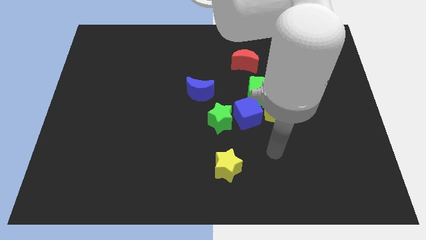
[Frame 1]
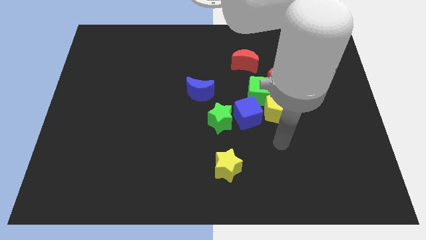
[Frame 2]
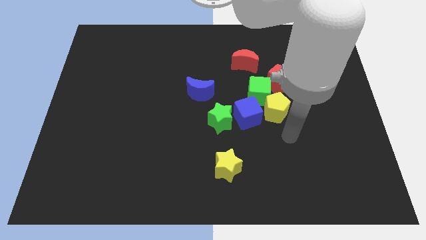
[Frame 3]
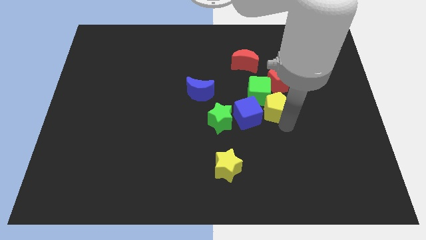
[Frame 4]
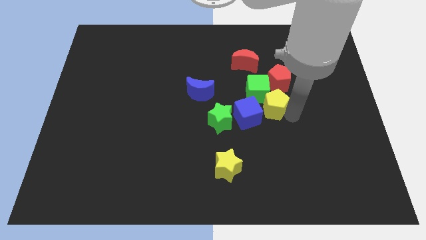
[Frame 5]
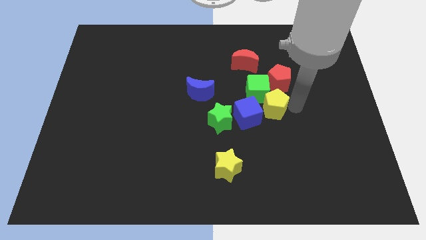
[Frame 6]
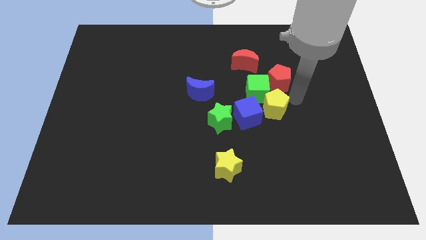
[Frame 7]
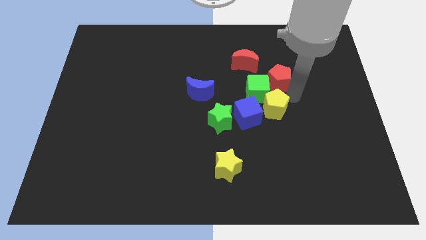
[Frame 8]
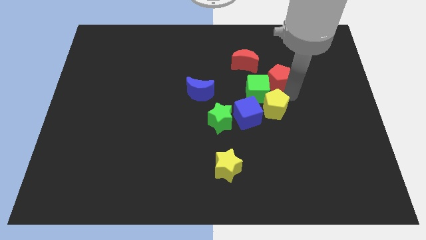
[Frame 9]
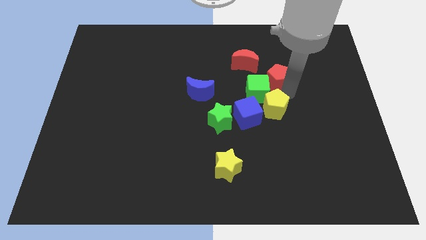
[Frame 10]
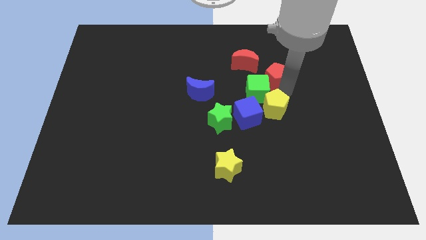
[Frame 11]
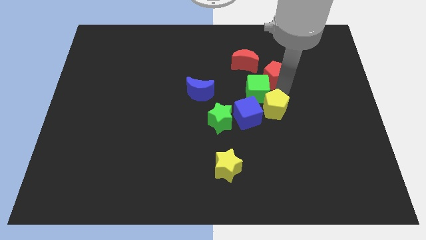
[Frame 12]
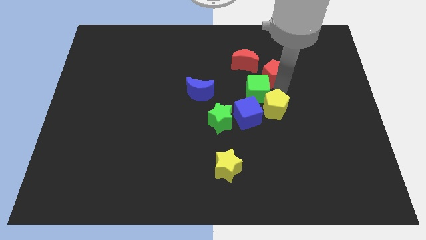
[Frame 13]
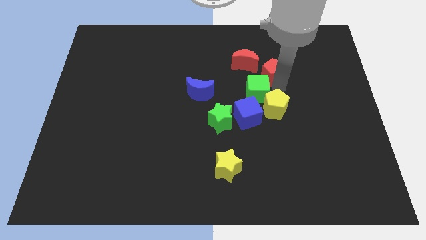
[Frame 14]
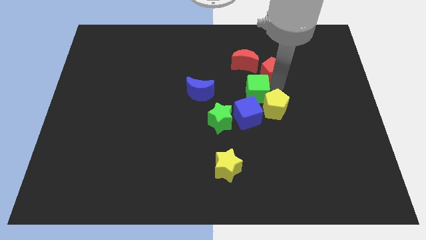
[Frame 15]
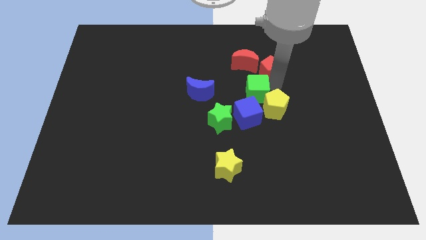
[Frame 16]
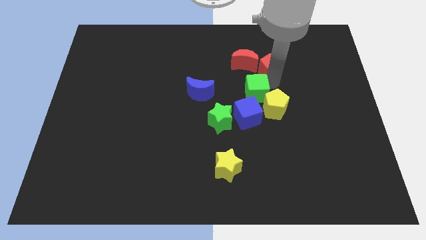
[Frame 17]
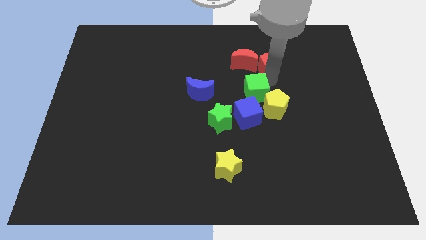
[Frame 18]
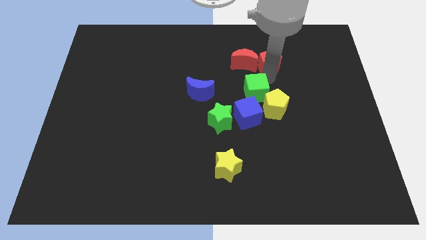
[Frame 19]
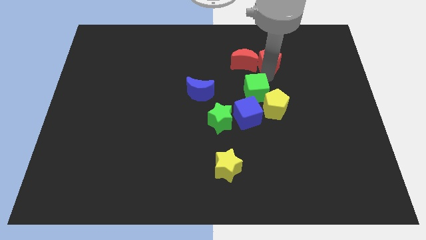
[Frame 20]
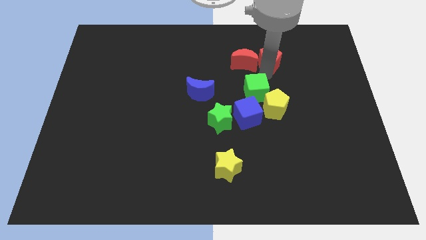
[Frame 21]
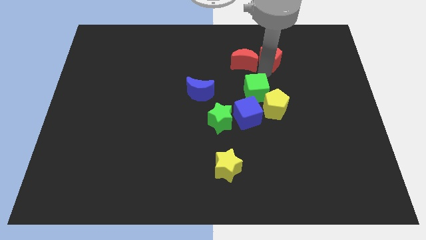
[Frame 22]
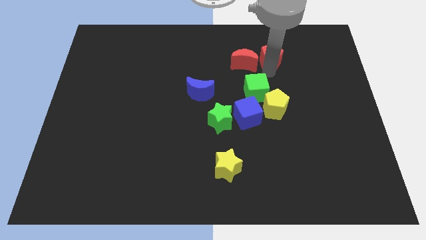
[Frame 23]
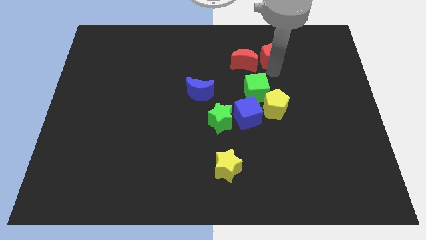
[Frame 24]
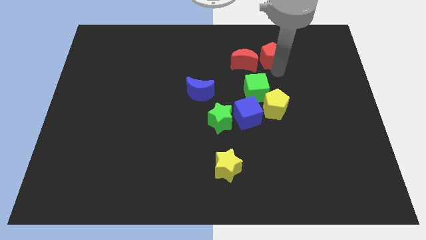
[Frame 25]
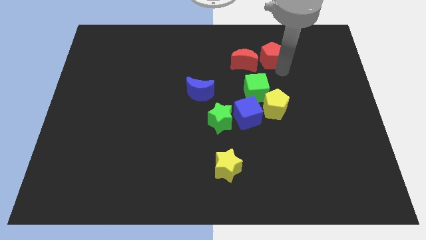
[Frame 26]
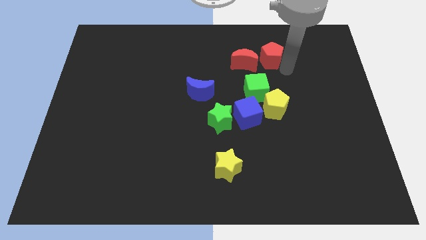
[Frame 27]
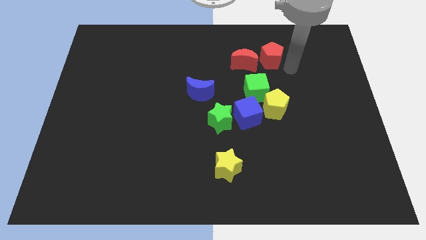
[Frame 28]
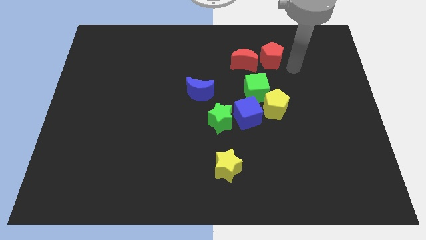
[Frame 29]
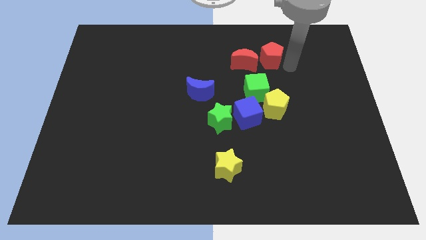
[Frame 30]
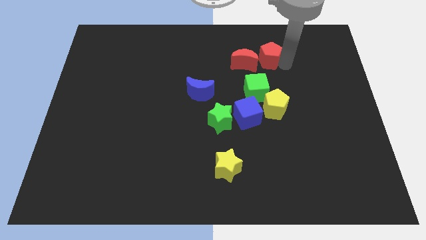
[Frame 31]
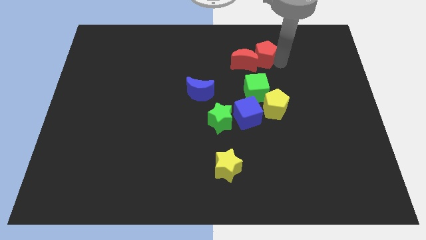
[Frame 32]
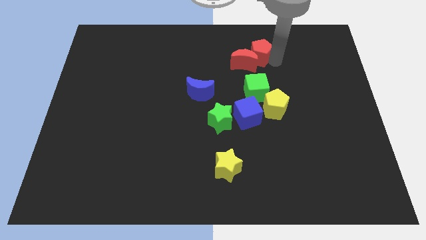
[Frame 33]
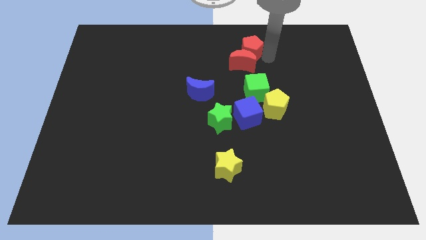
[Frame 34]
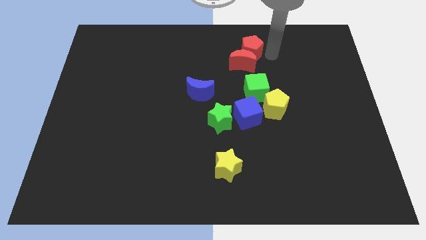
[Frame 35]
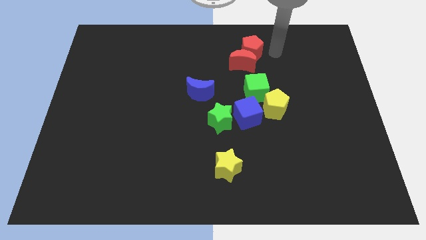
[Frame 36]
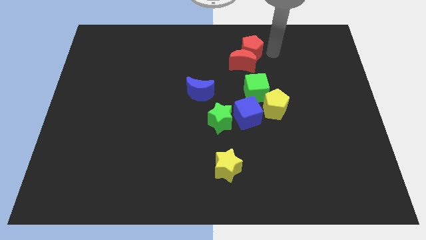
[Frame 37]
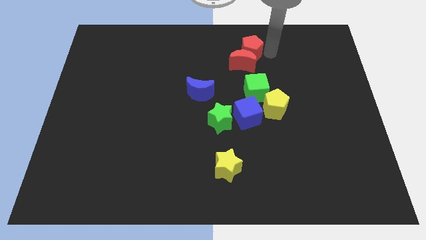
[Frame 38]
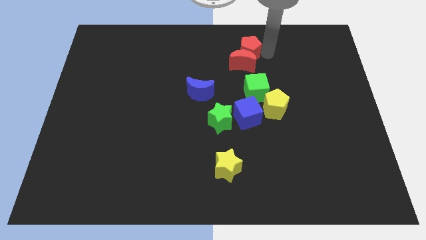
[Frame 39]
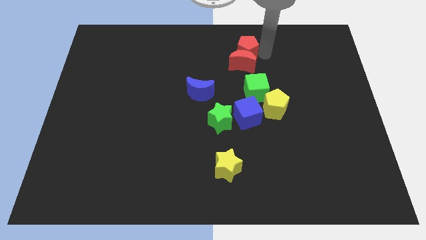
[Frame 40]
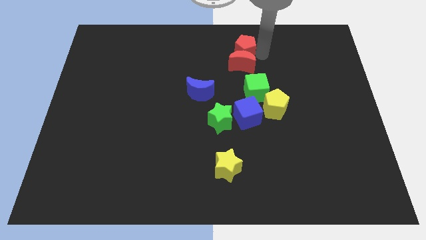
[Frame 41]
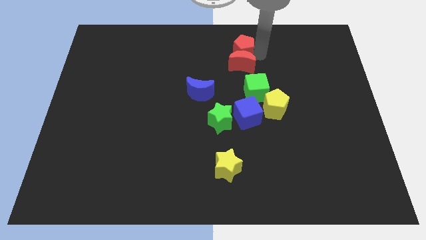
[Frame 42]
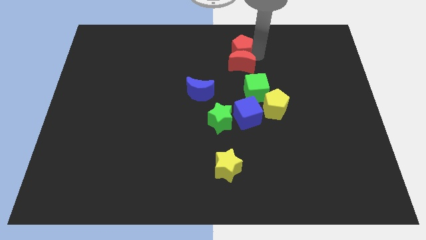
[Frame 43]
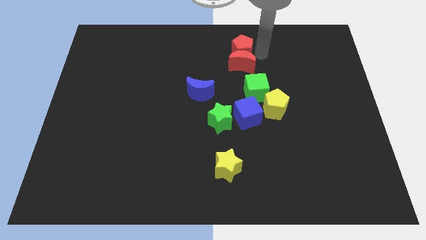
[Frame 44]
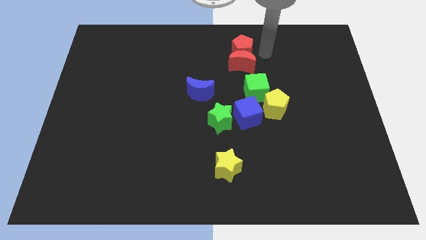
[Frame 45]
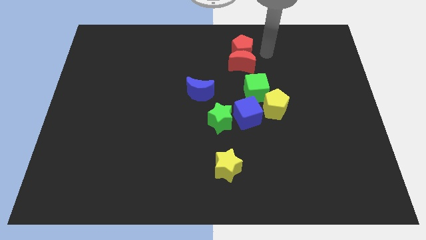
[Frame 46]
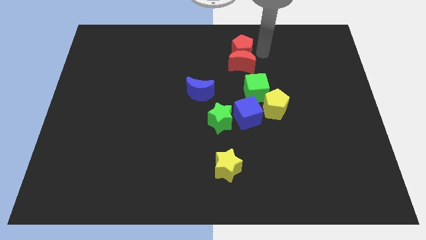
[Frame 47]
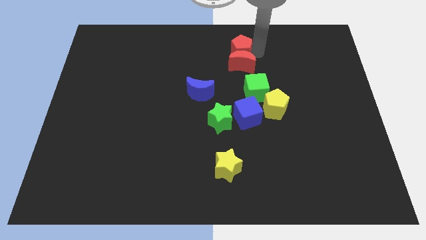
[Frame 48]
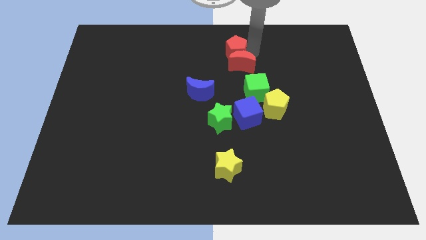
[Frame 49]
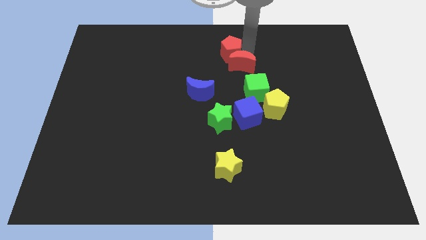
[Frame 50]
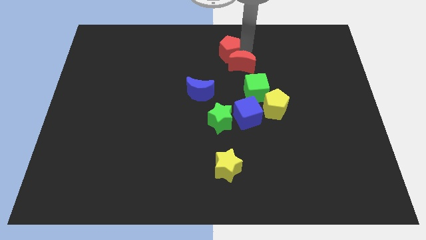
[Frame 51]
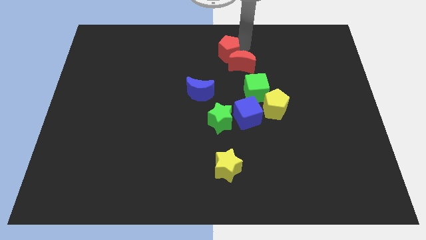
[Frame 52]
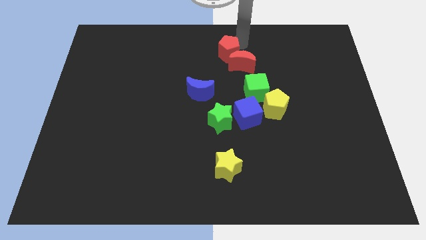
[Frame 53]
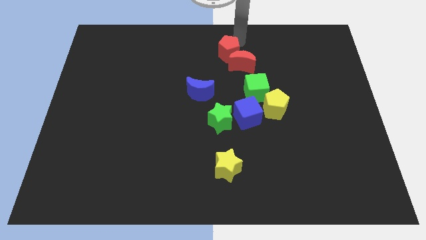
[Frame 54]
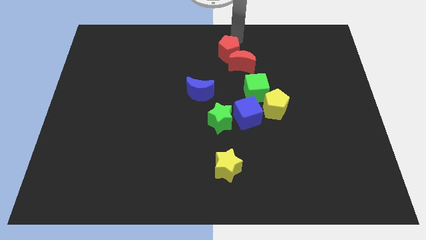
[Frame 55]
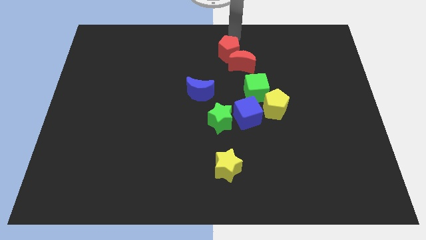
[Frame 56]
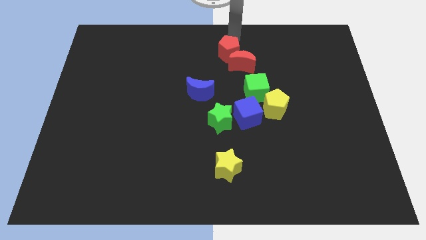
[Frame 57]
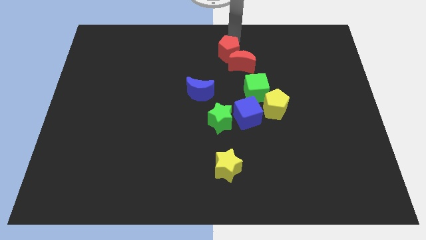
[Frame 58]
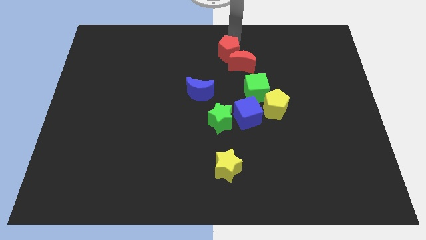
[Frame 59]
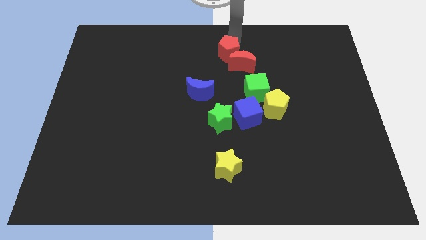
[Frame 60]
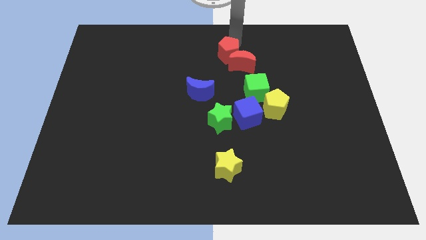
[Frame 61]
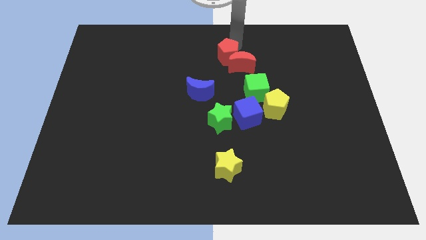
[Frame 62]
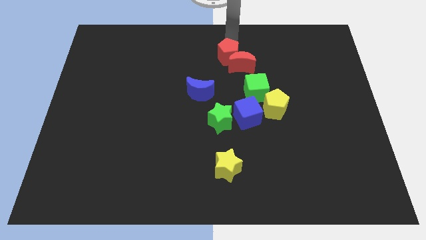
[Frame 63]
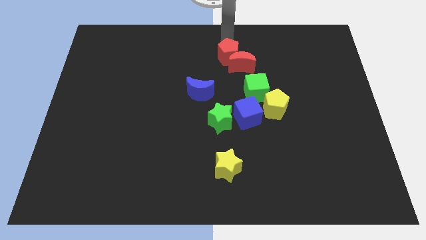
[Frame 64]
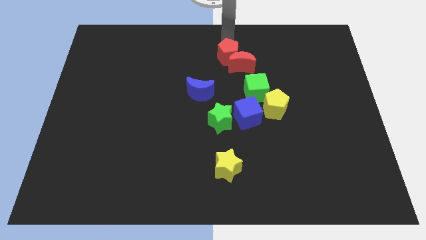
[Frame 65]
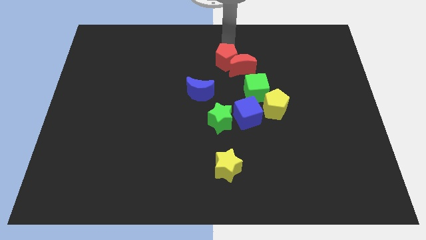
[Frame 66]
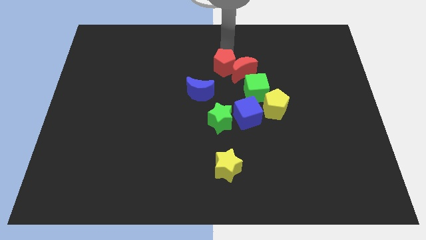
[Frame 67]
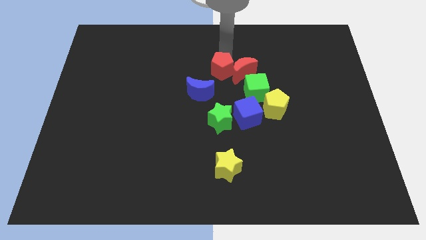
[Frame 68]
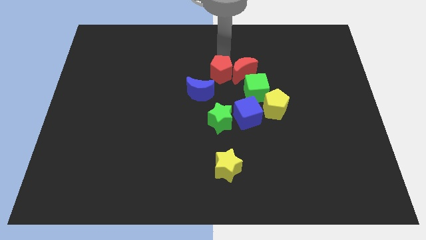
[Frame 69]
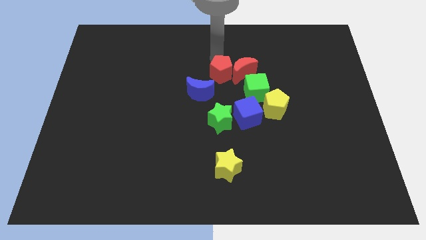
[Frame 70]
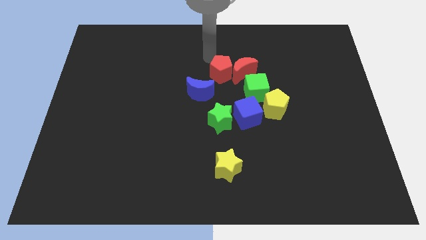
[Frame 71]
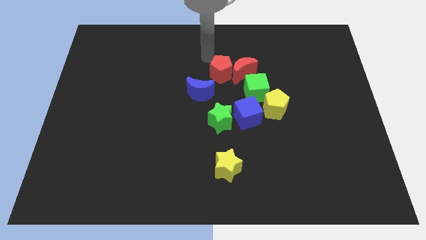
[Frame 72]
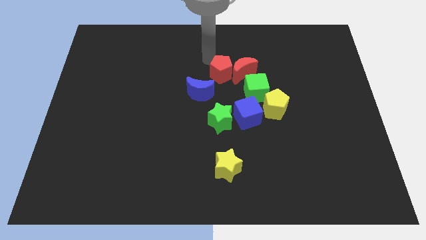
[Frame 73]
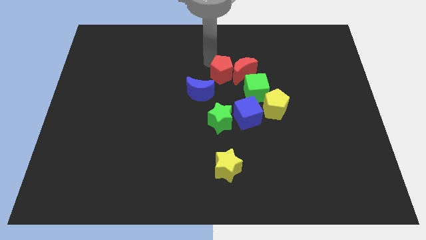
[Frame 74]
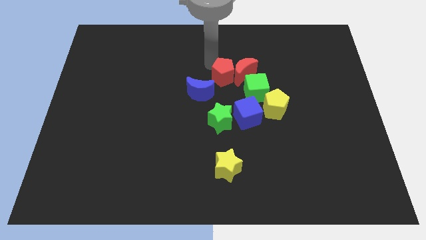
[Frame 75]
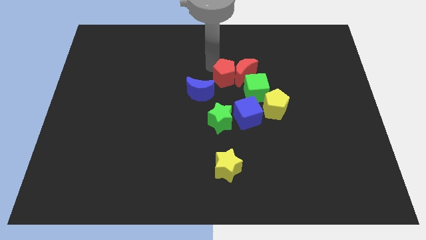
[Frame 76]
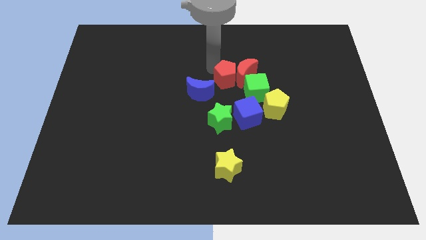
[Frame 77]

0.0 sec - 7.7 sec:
put the red pentagon just right of the blue moon
